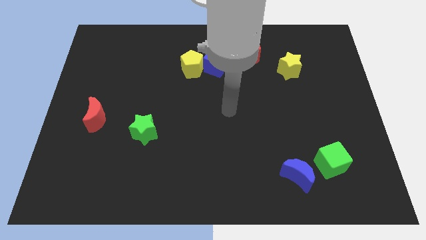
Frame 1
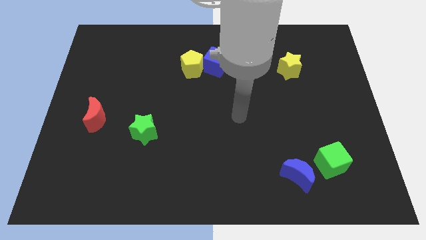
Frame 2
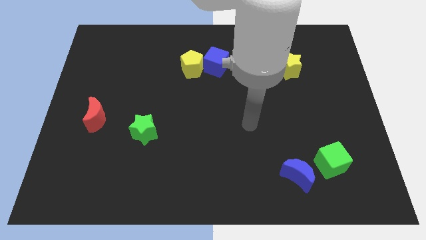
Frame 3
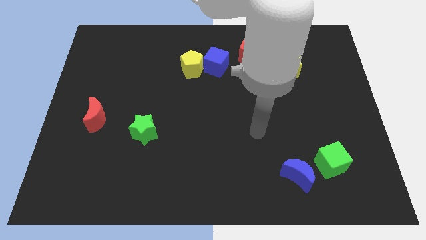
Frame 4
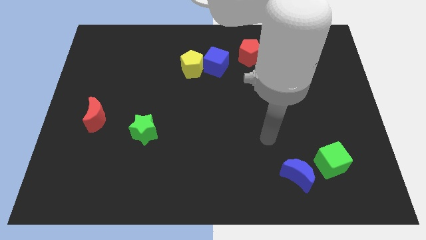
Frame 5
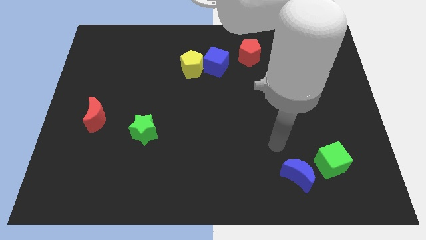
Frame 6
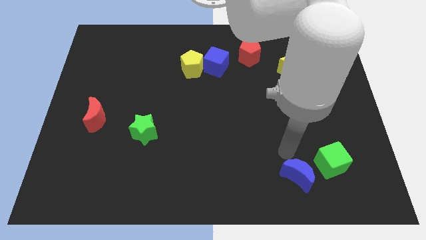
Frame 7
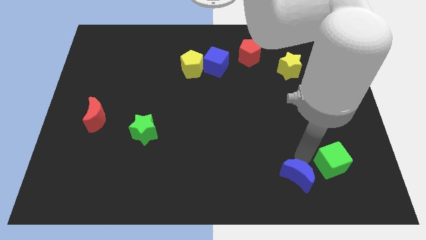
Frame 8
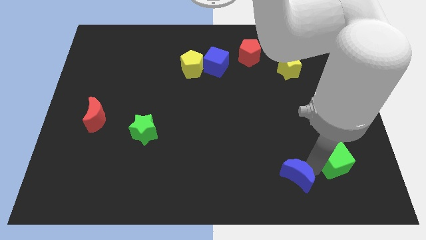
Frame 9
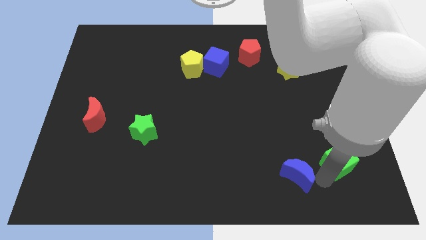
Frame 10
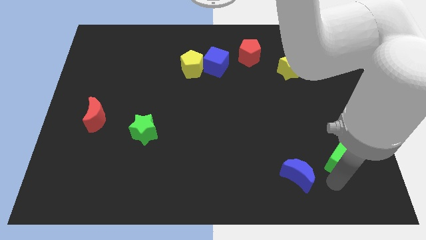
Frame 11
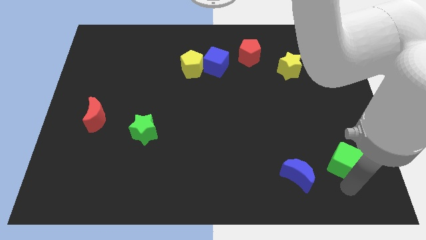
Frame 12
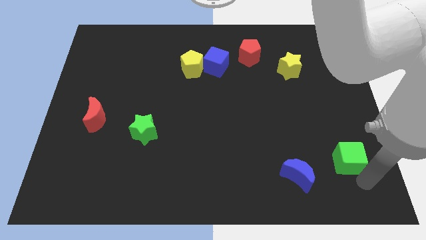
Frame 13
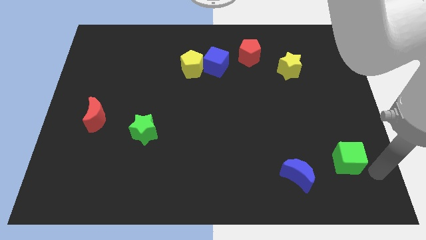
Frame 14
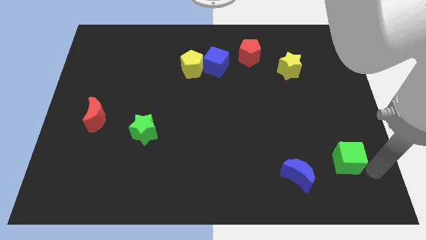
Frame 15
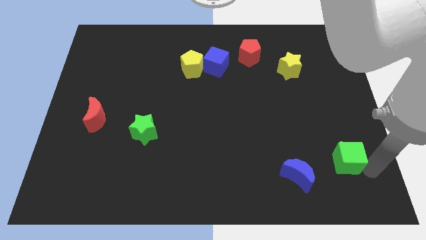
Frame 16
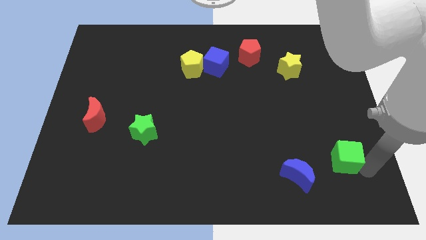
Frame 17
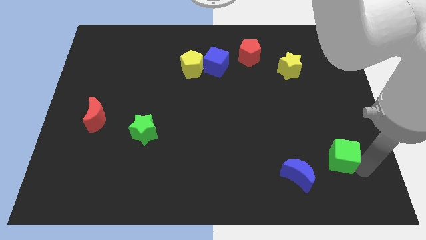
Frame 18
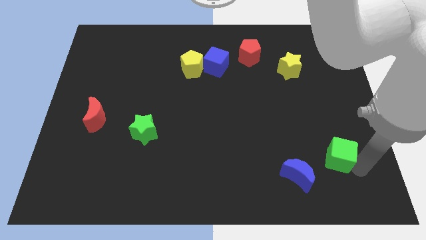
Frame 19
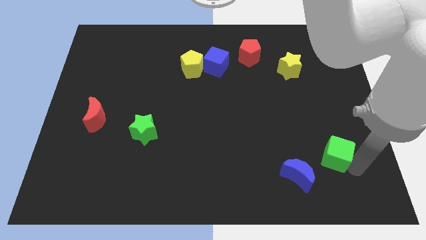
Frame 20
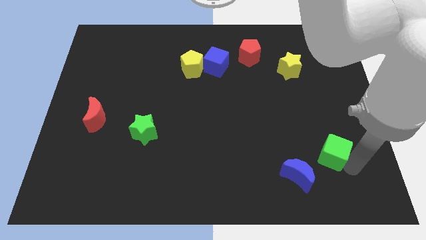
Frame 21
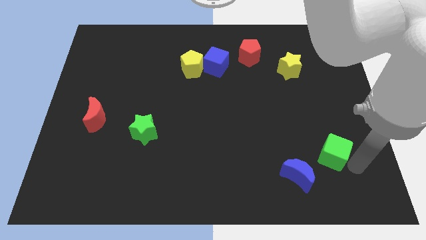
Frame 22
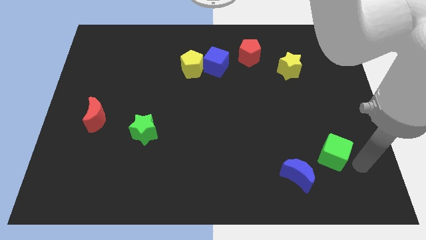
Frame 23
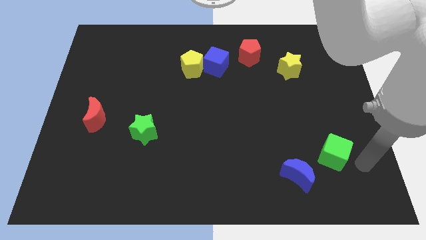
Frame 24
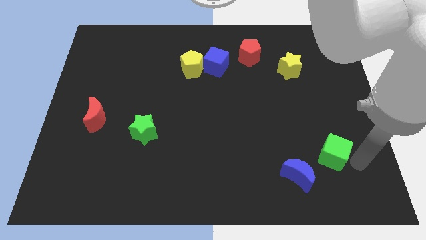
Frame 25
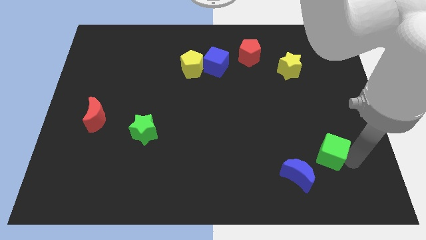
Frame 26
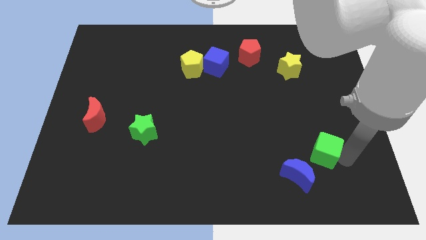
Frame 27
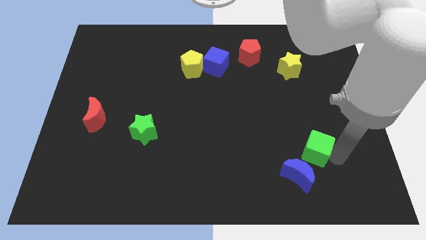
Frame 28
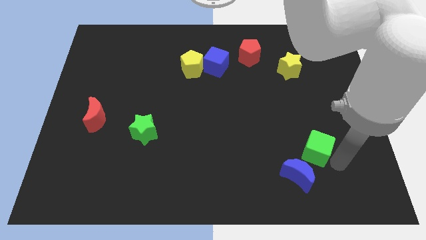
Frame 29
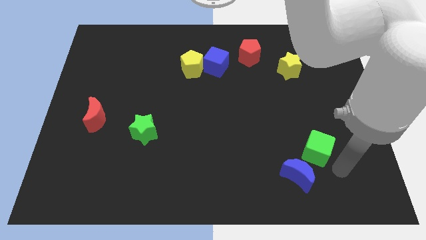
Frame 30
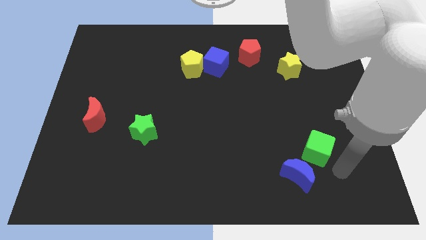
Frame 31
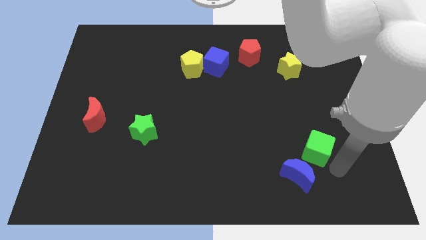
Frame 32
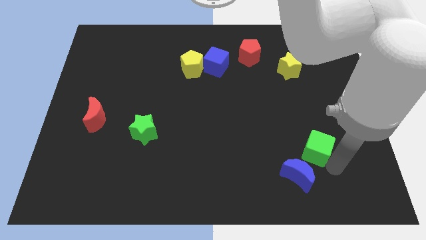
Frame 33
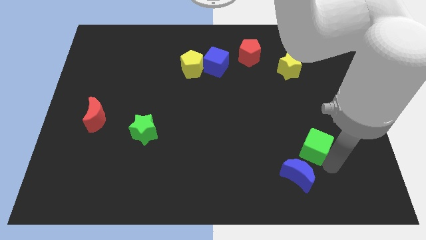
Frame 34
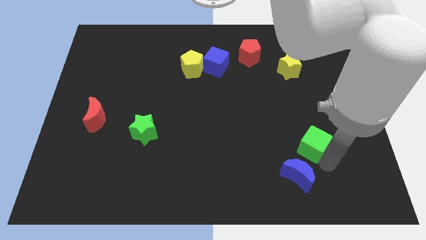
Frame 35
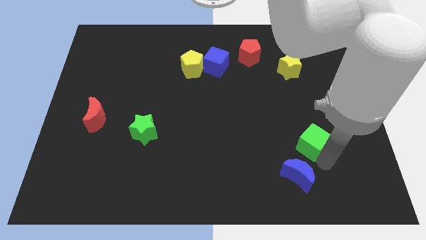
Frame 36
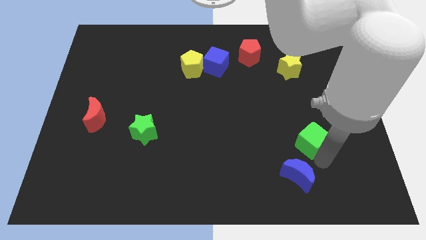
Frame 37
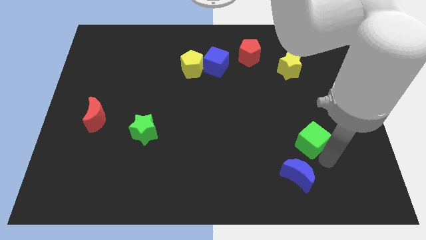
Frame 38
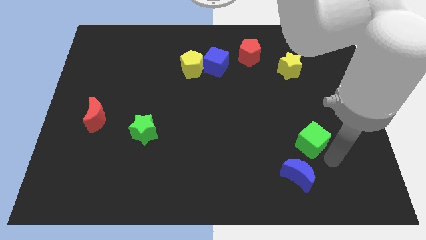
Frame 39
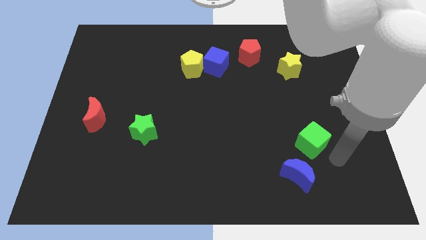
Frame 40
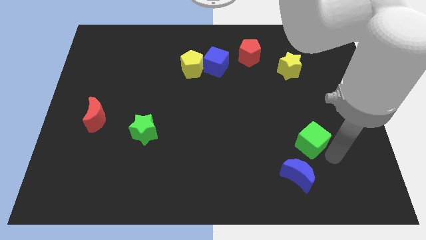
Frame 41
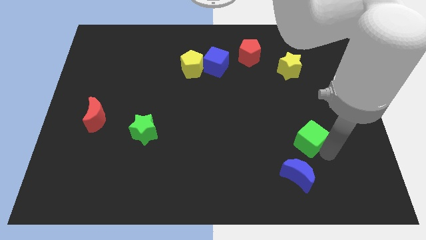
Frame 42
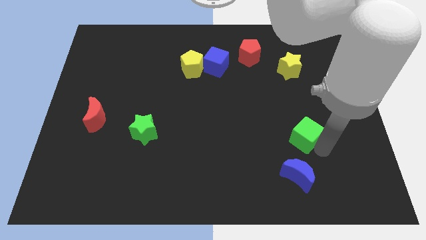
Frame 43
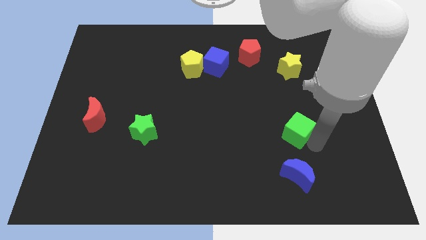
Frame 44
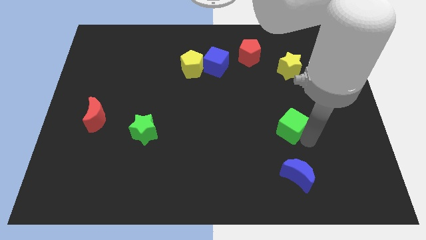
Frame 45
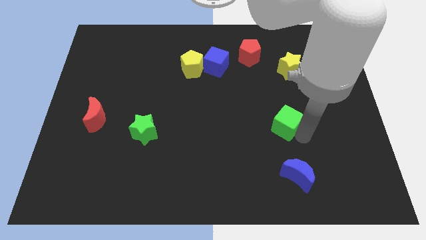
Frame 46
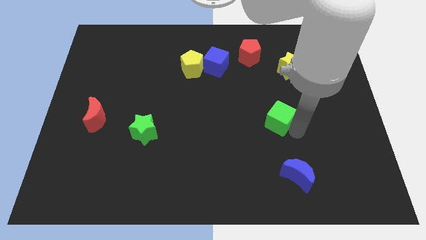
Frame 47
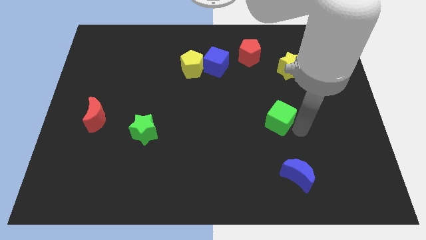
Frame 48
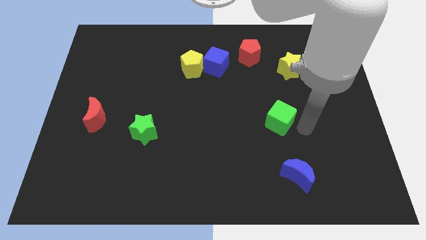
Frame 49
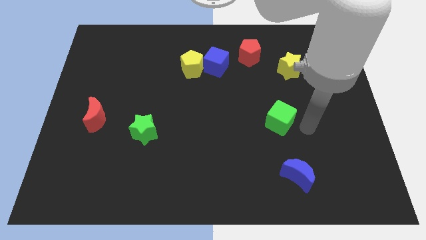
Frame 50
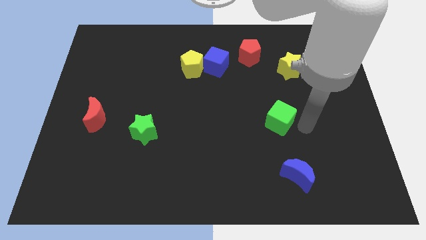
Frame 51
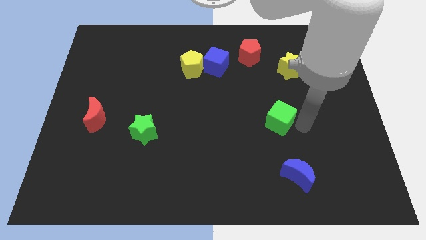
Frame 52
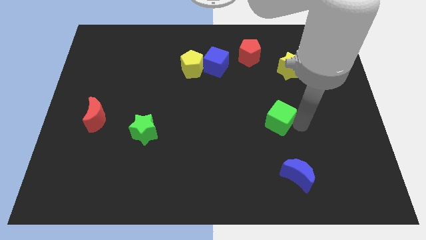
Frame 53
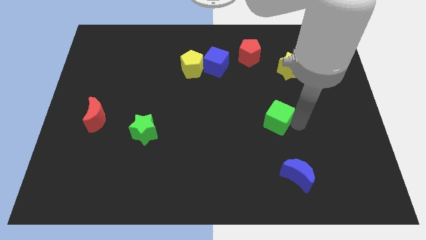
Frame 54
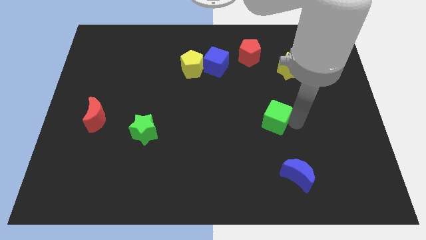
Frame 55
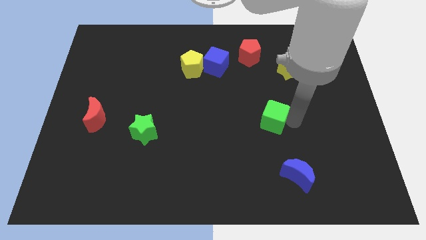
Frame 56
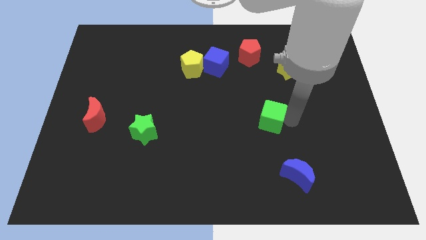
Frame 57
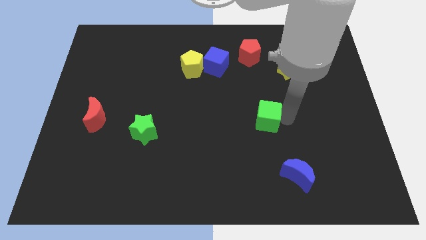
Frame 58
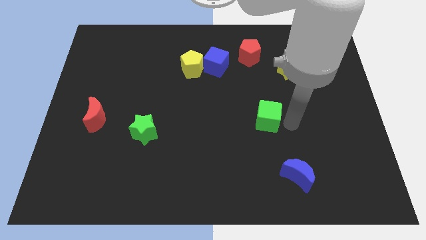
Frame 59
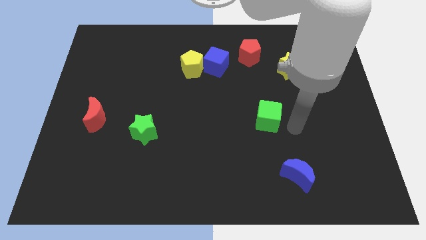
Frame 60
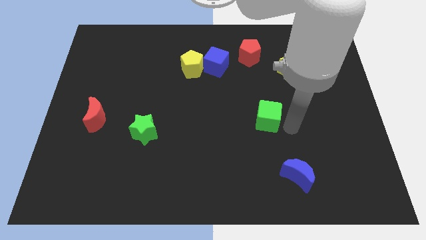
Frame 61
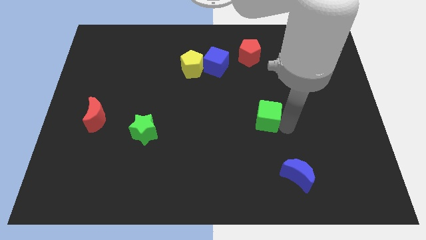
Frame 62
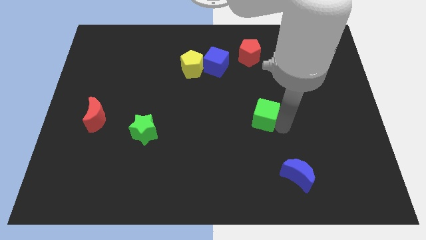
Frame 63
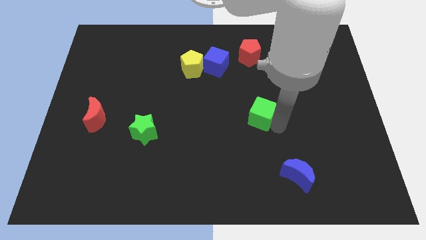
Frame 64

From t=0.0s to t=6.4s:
slide the green cube to the middle of the board
